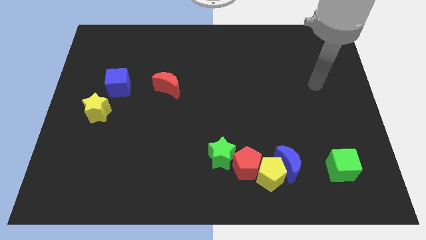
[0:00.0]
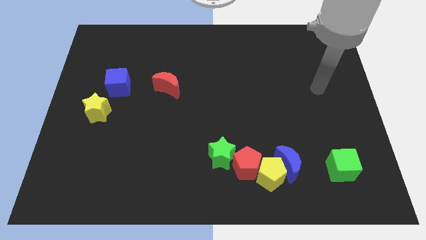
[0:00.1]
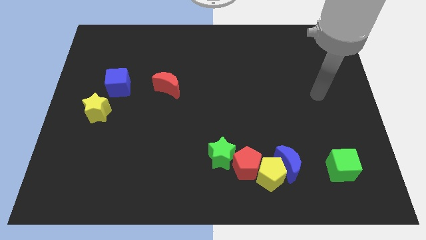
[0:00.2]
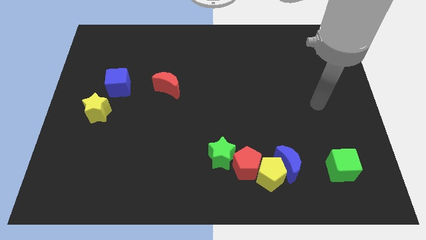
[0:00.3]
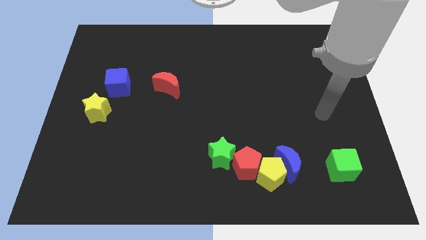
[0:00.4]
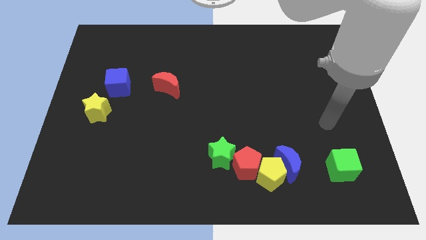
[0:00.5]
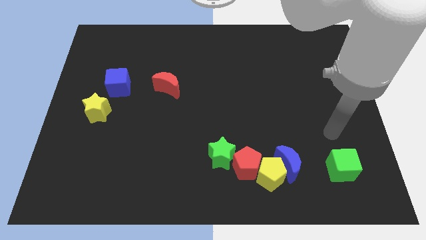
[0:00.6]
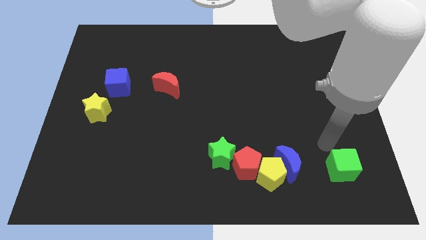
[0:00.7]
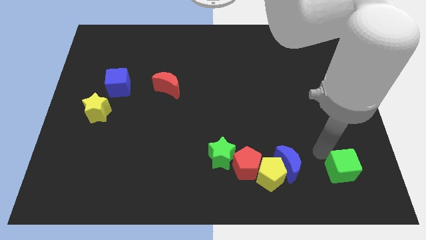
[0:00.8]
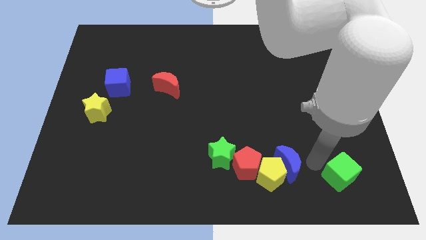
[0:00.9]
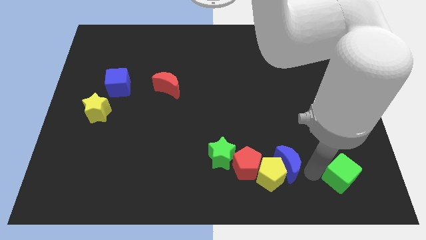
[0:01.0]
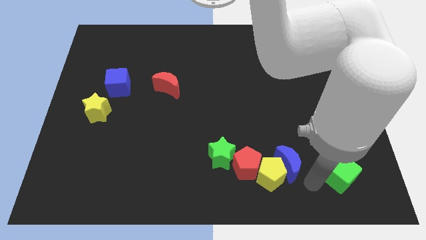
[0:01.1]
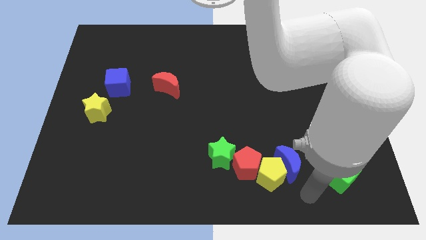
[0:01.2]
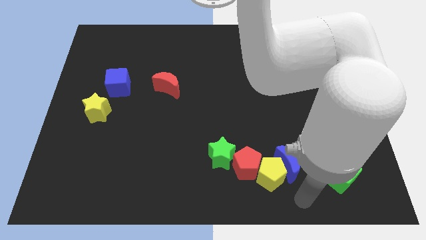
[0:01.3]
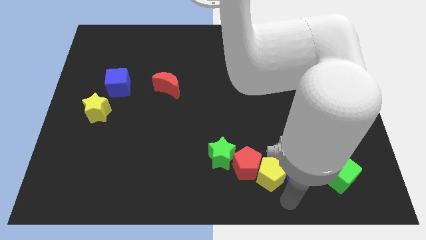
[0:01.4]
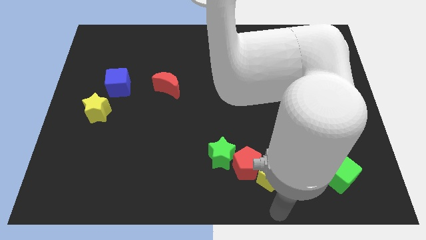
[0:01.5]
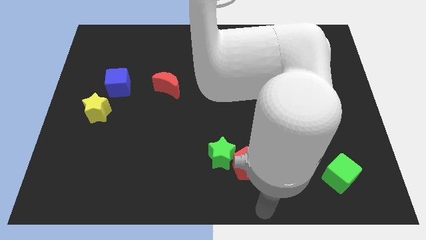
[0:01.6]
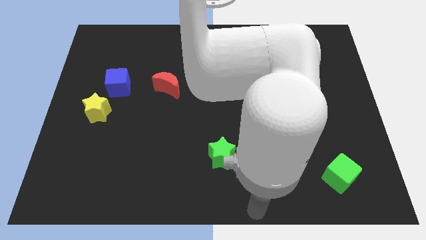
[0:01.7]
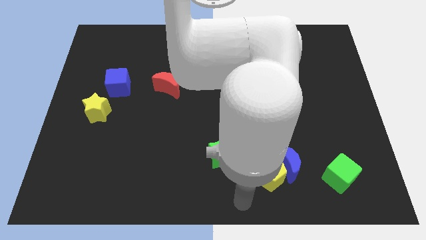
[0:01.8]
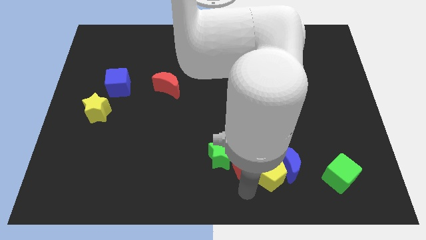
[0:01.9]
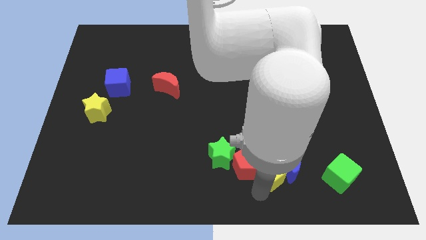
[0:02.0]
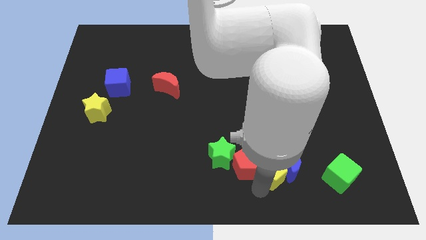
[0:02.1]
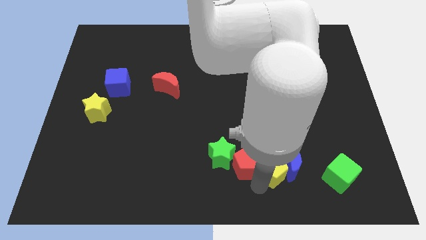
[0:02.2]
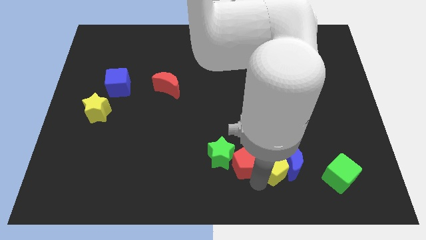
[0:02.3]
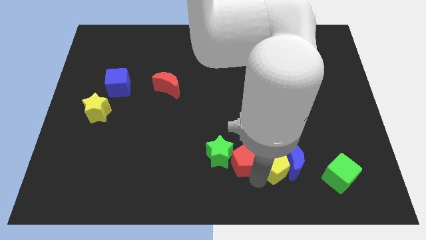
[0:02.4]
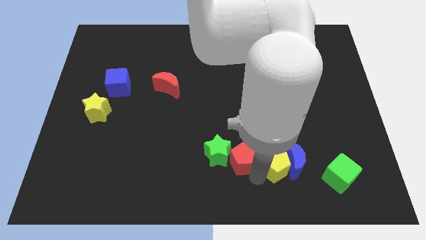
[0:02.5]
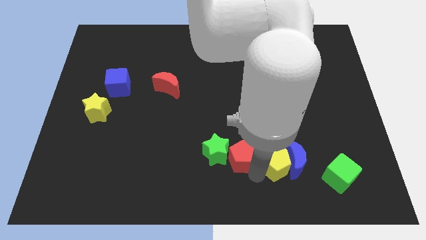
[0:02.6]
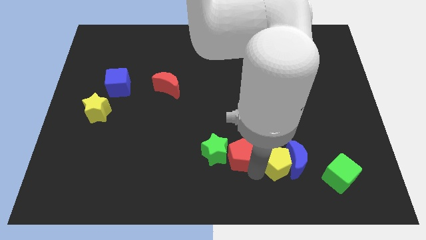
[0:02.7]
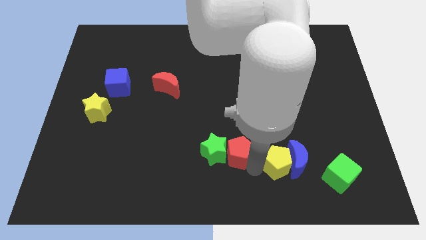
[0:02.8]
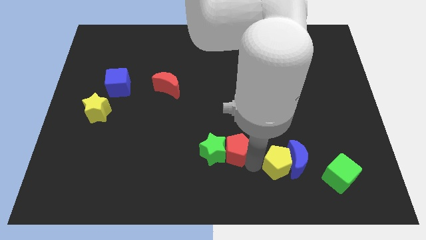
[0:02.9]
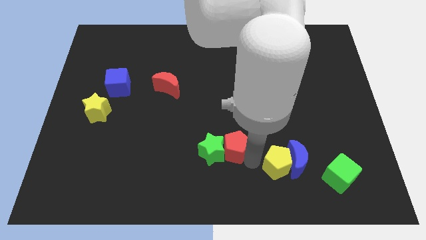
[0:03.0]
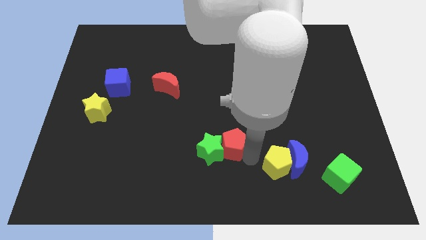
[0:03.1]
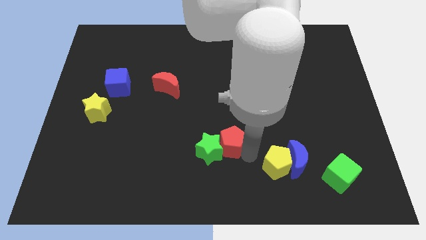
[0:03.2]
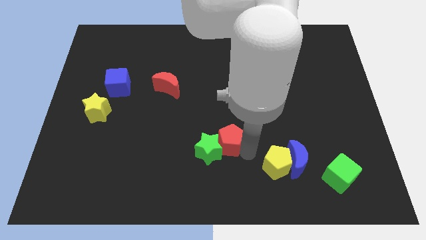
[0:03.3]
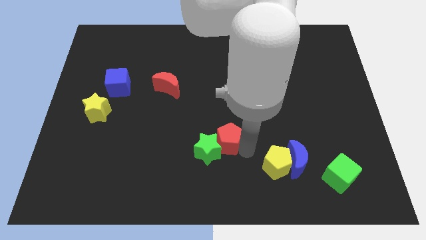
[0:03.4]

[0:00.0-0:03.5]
push the red pentagon up and left slightly

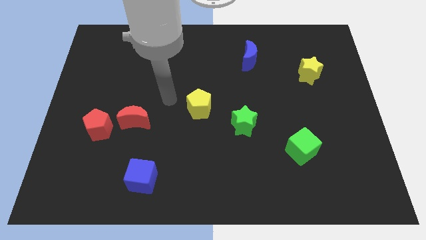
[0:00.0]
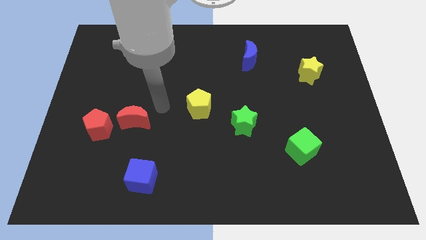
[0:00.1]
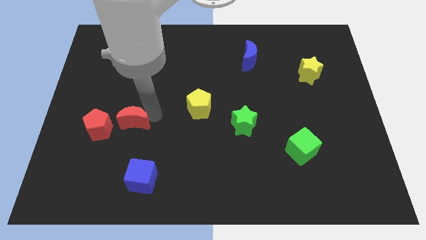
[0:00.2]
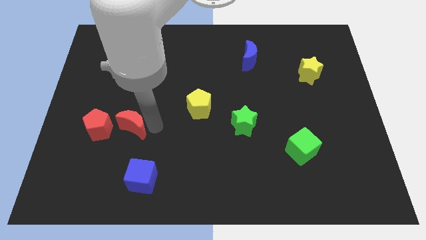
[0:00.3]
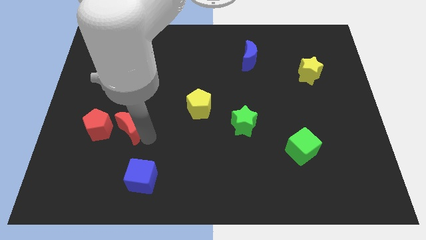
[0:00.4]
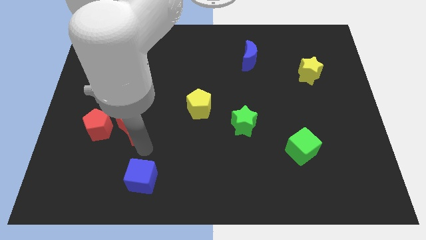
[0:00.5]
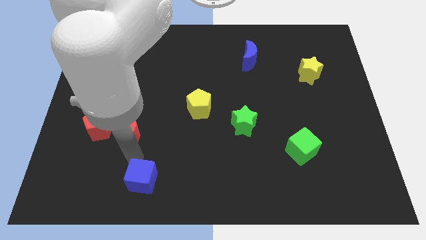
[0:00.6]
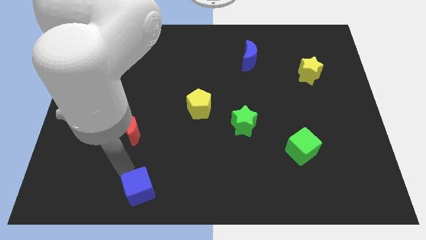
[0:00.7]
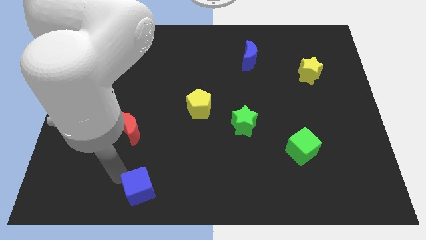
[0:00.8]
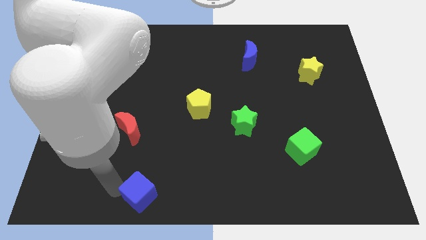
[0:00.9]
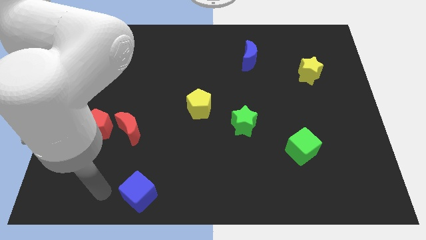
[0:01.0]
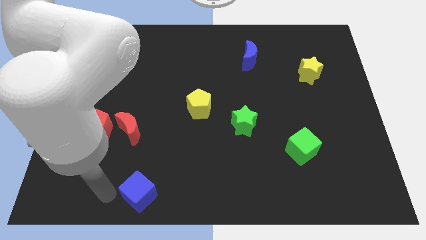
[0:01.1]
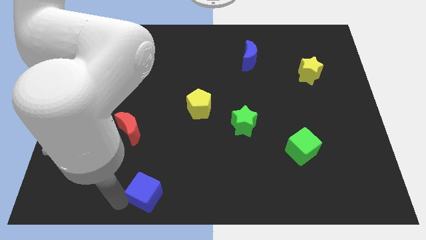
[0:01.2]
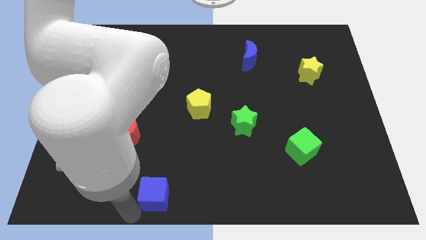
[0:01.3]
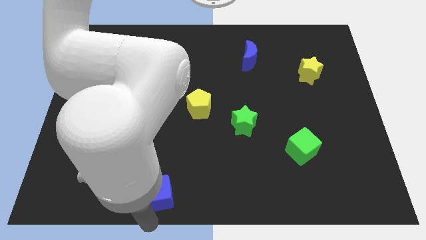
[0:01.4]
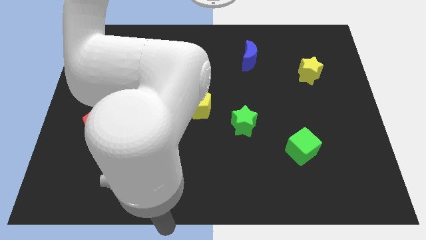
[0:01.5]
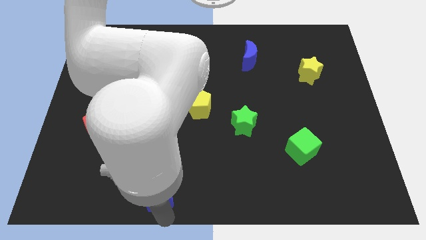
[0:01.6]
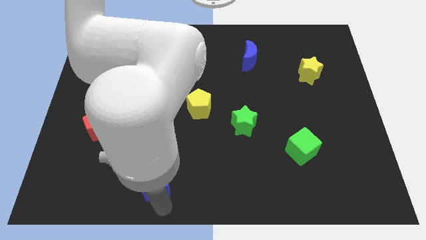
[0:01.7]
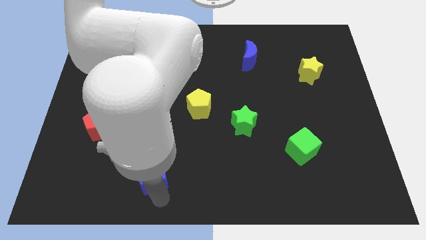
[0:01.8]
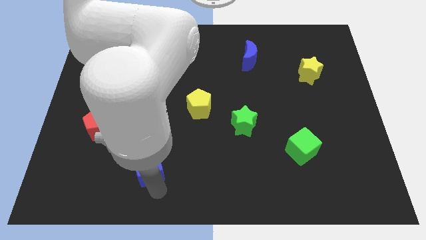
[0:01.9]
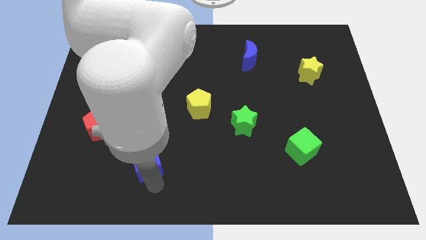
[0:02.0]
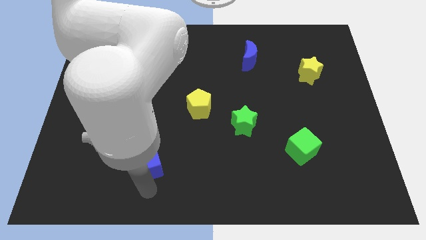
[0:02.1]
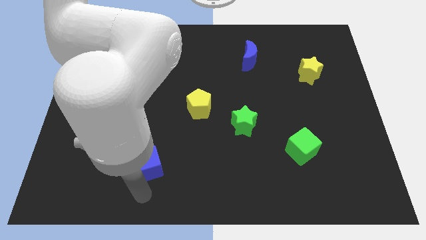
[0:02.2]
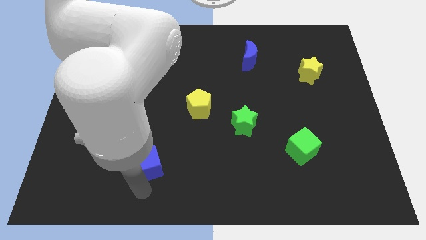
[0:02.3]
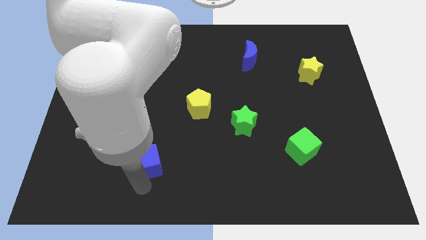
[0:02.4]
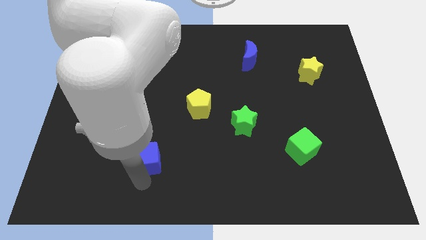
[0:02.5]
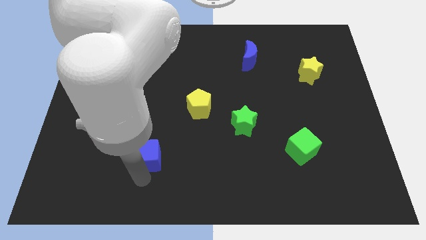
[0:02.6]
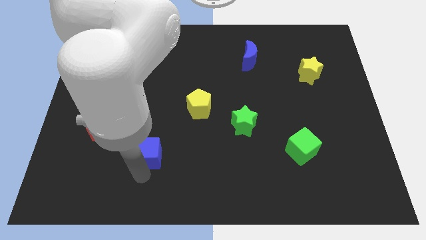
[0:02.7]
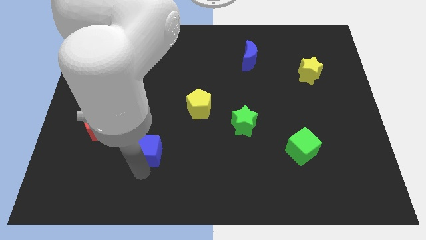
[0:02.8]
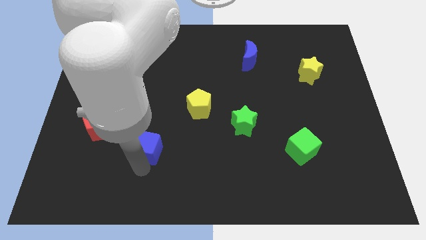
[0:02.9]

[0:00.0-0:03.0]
push the blue cube up somewhat

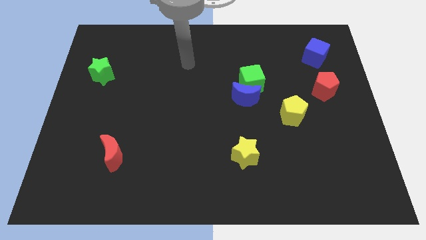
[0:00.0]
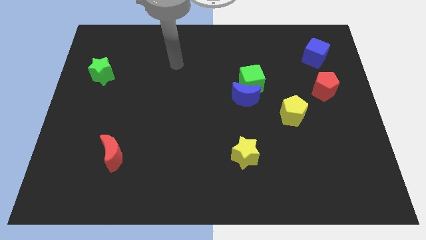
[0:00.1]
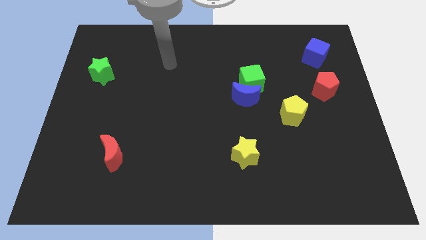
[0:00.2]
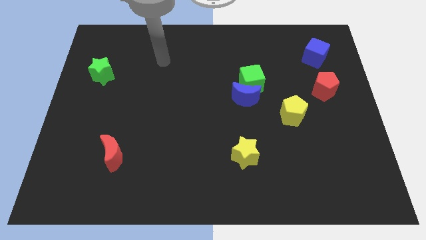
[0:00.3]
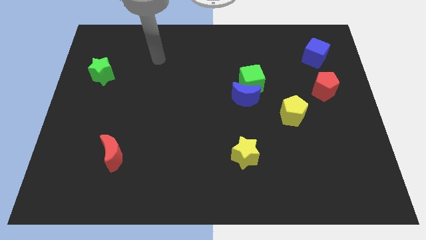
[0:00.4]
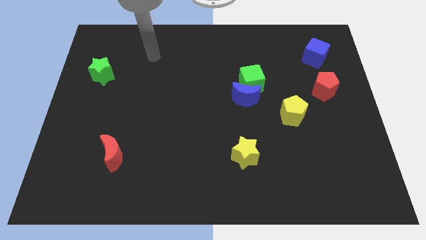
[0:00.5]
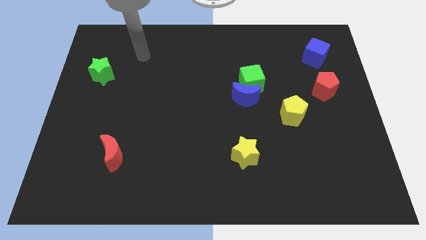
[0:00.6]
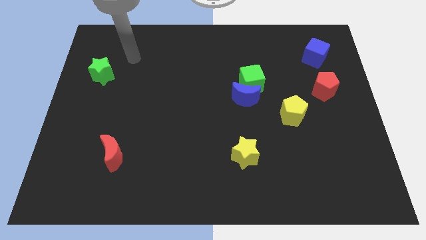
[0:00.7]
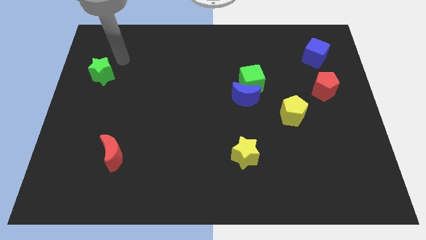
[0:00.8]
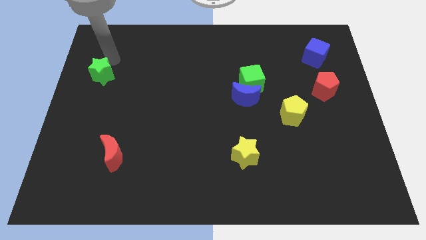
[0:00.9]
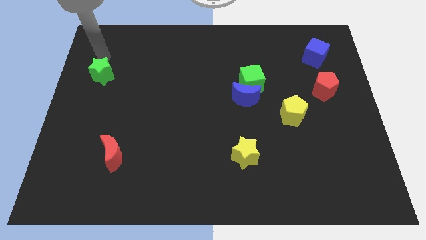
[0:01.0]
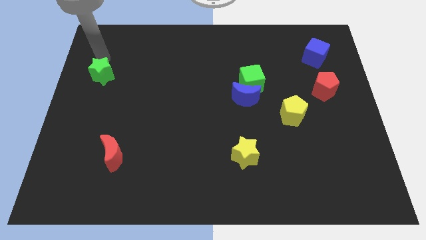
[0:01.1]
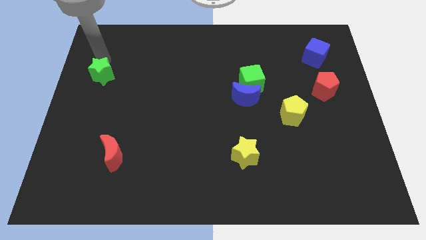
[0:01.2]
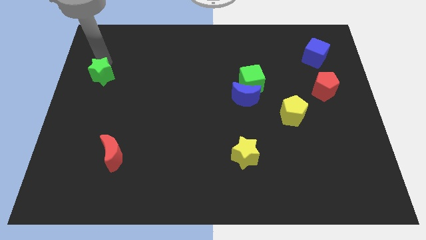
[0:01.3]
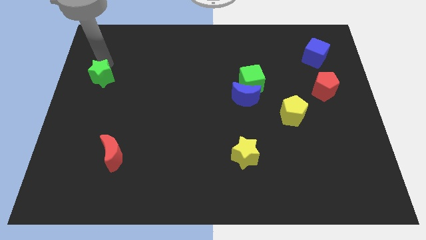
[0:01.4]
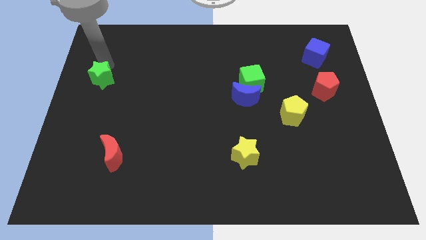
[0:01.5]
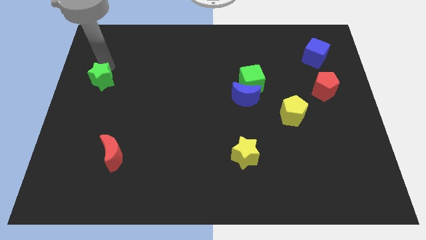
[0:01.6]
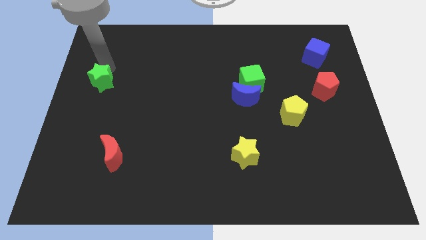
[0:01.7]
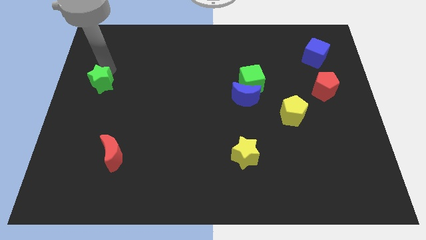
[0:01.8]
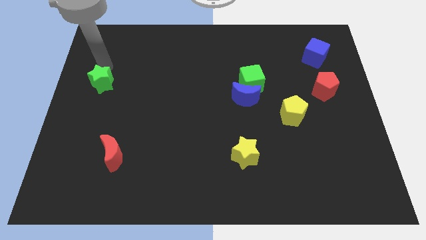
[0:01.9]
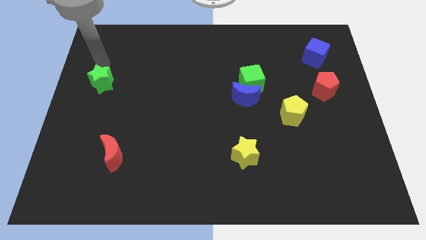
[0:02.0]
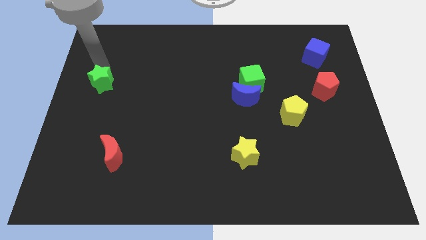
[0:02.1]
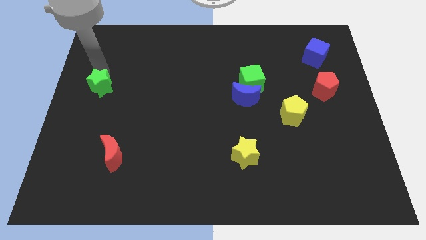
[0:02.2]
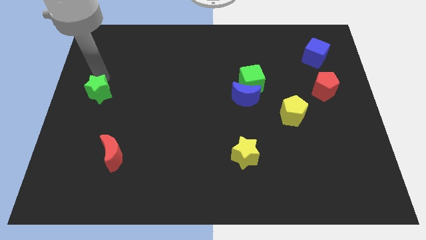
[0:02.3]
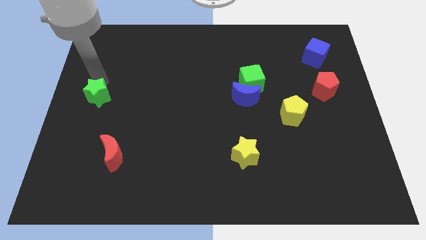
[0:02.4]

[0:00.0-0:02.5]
slide the green star down a little bit
